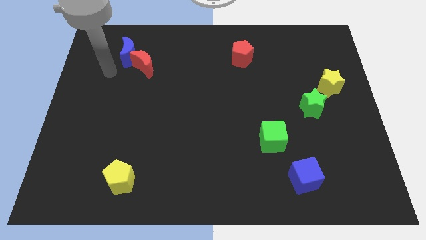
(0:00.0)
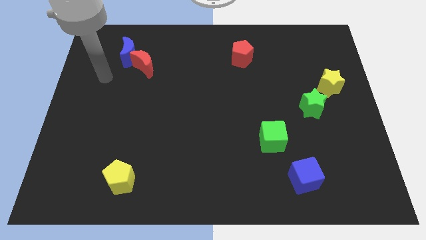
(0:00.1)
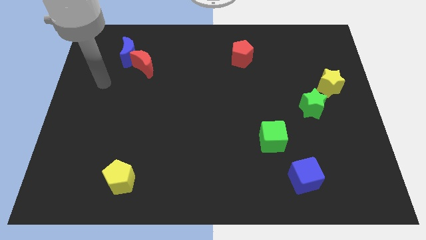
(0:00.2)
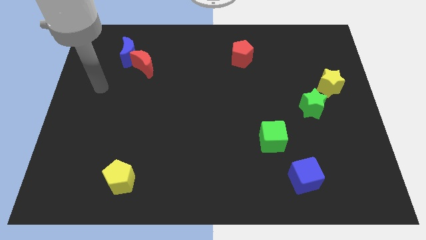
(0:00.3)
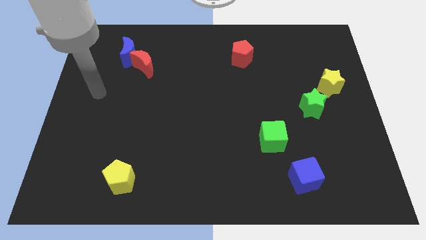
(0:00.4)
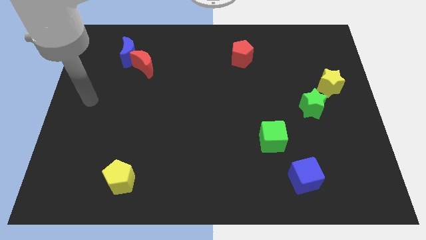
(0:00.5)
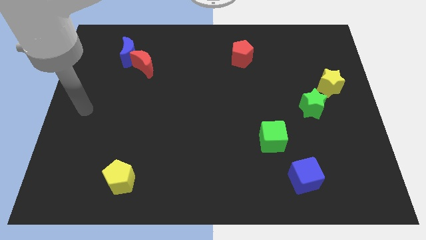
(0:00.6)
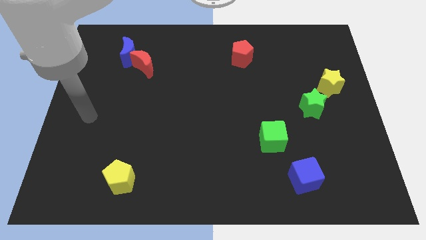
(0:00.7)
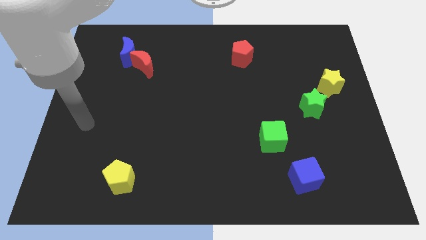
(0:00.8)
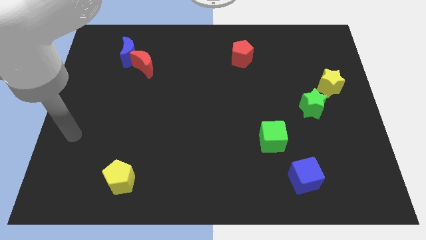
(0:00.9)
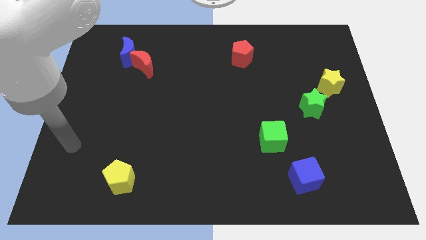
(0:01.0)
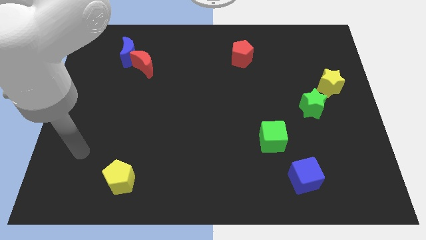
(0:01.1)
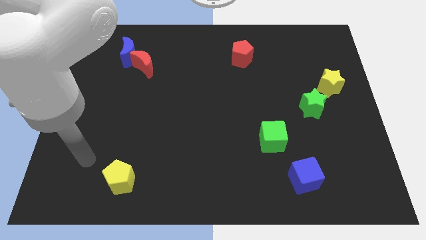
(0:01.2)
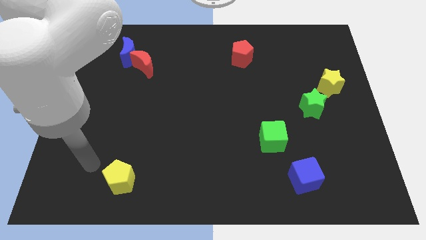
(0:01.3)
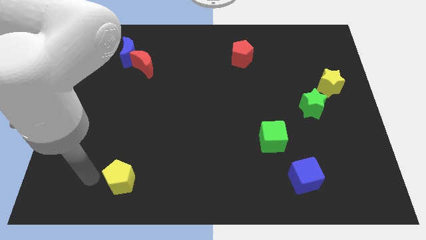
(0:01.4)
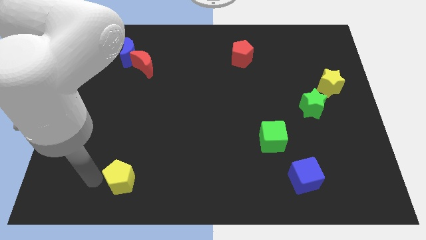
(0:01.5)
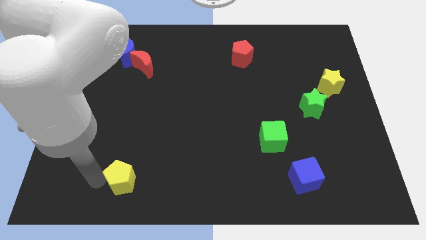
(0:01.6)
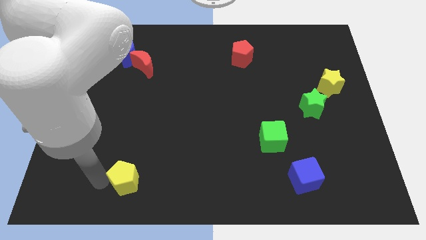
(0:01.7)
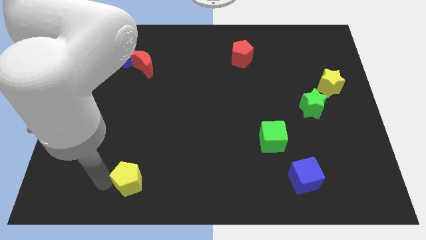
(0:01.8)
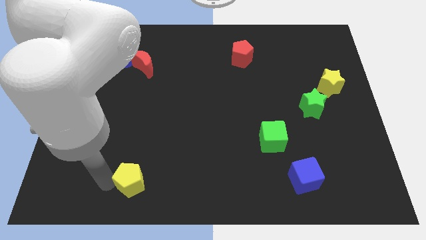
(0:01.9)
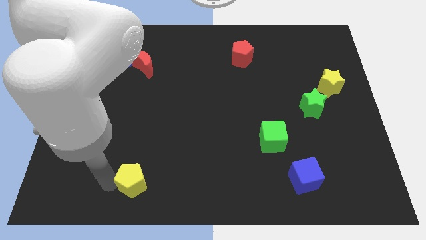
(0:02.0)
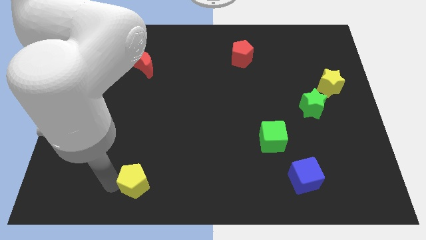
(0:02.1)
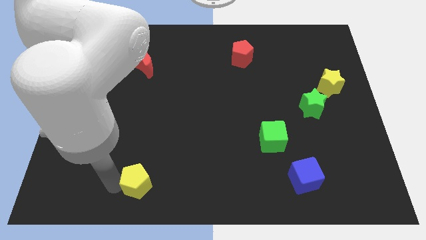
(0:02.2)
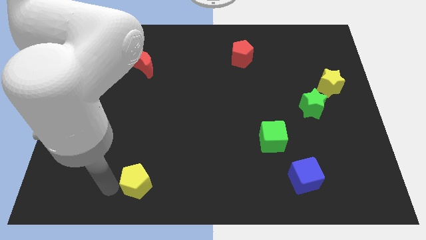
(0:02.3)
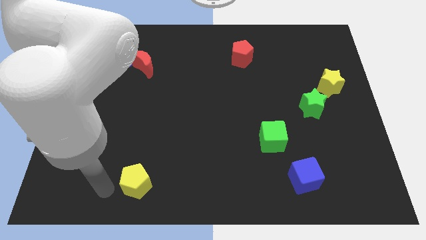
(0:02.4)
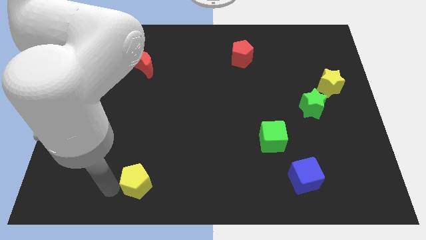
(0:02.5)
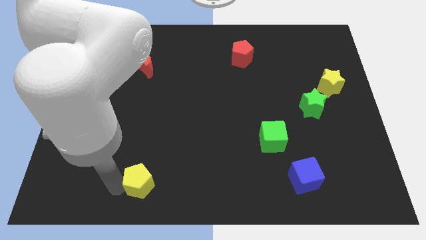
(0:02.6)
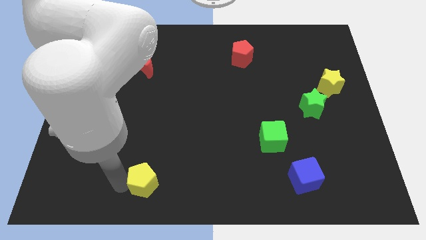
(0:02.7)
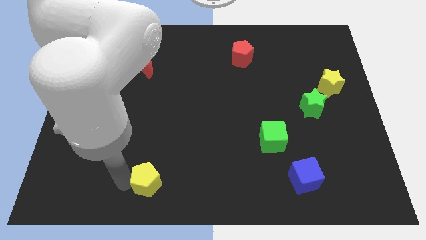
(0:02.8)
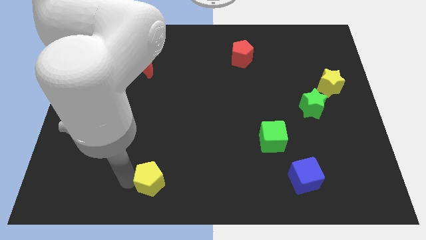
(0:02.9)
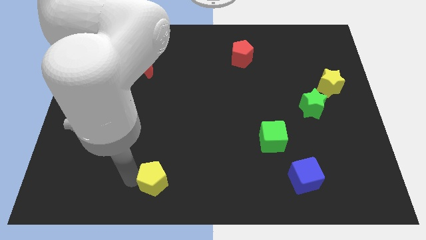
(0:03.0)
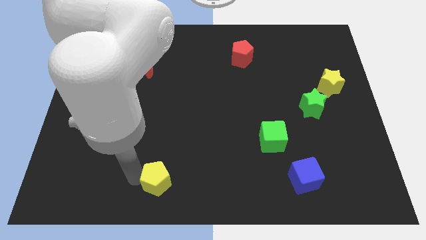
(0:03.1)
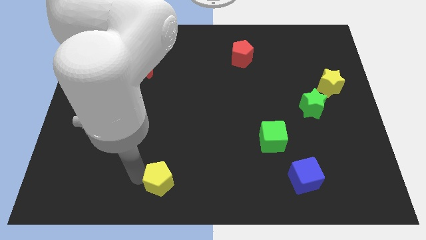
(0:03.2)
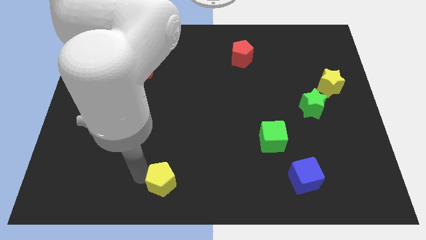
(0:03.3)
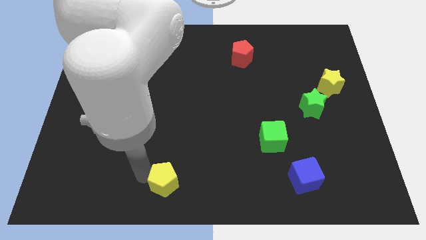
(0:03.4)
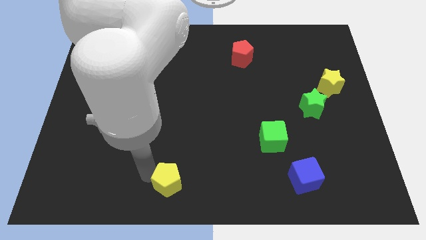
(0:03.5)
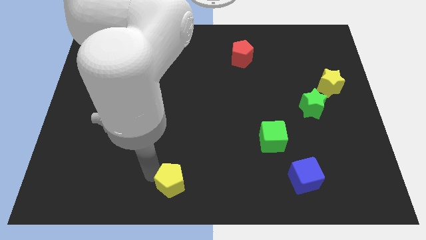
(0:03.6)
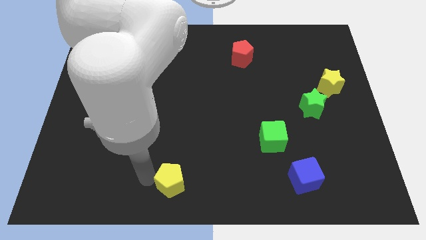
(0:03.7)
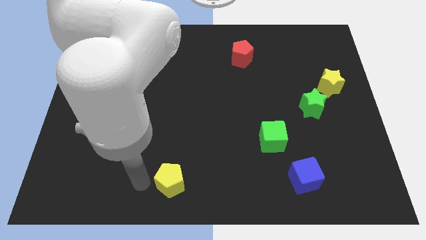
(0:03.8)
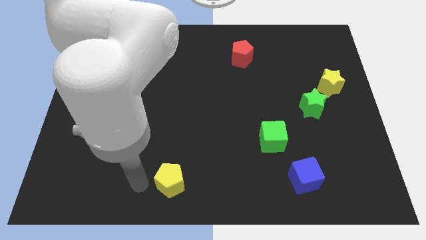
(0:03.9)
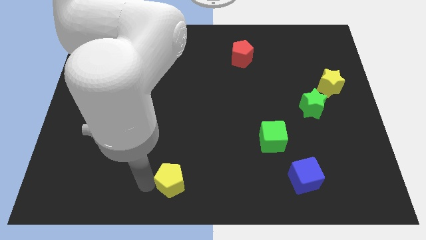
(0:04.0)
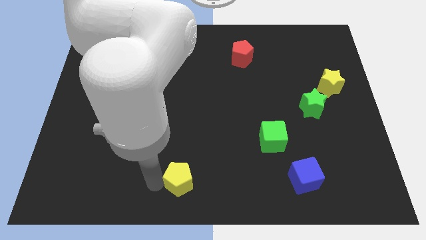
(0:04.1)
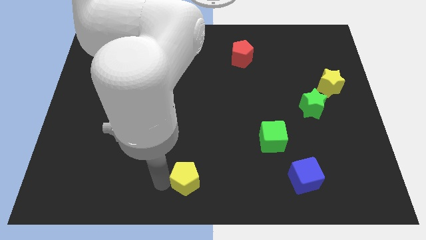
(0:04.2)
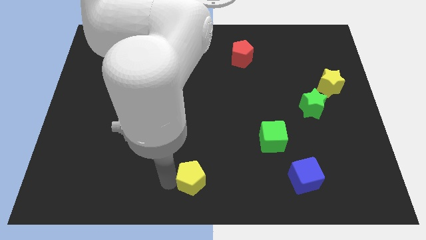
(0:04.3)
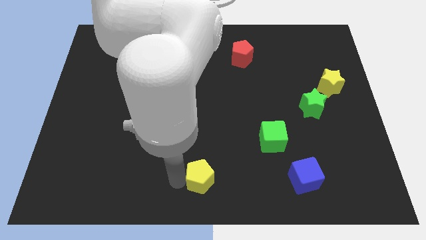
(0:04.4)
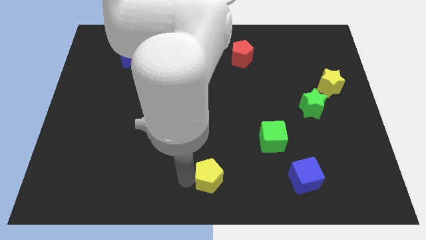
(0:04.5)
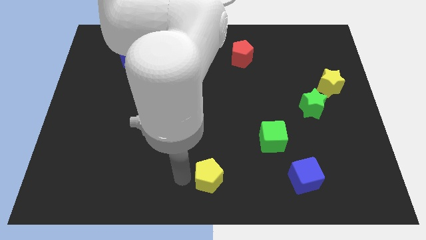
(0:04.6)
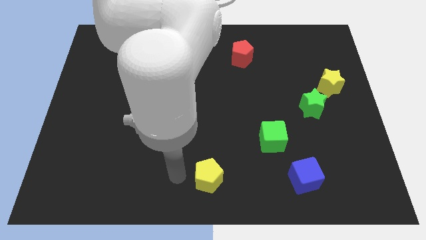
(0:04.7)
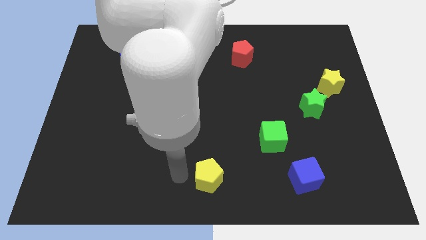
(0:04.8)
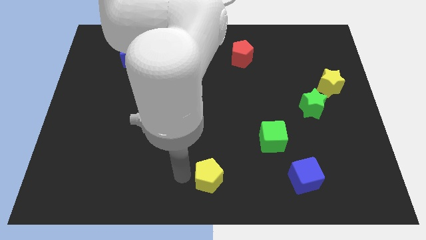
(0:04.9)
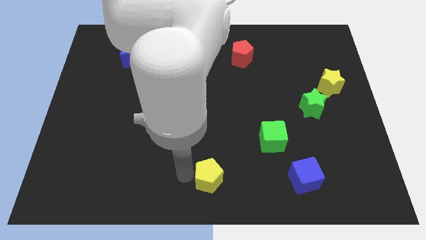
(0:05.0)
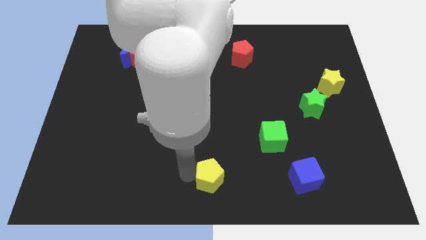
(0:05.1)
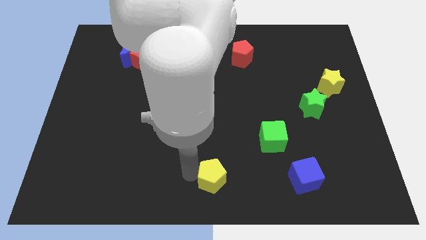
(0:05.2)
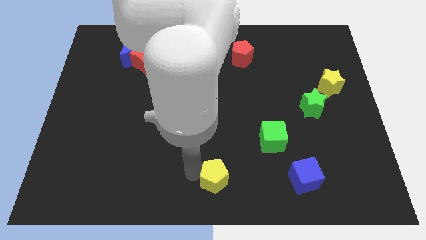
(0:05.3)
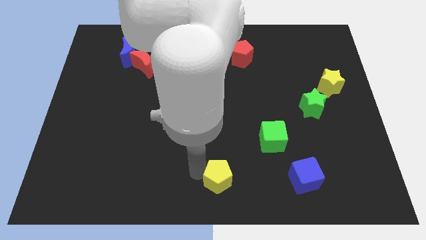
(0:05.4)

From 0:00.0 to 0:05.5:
move the yellow pentagon right

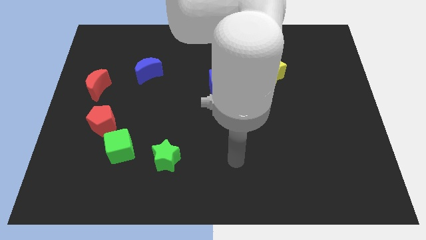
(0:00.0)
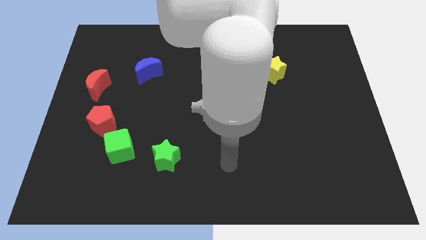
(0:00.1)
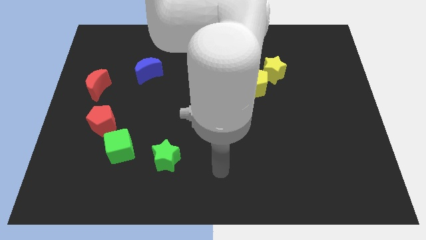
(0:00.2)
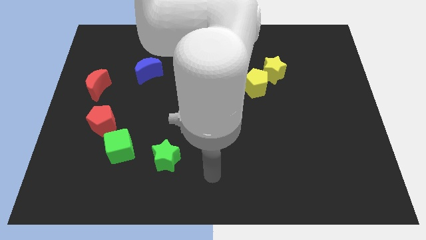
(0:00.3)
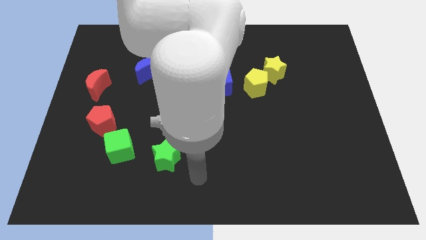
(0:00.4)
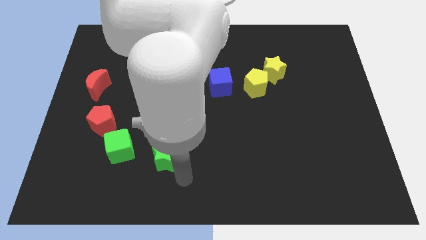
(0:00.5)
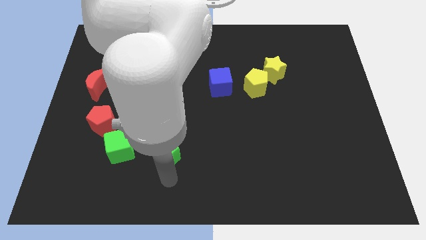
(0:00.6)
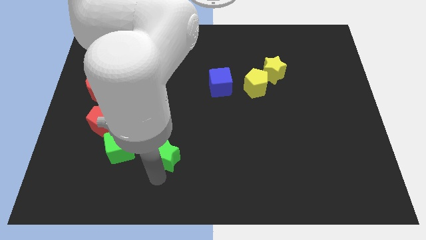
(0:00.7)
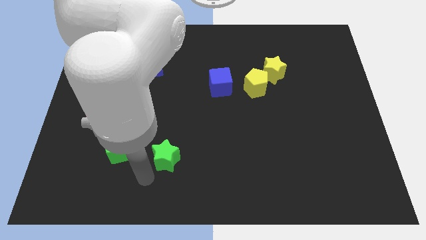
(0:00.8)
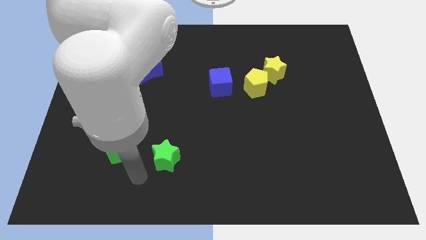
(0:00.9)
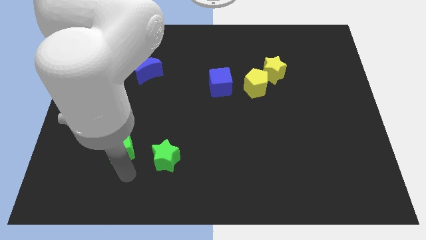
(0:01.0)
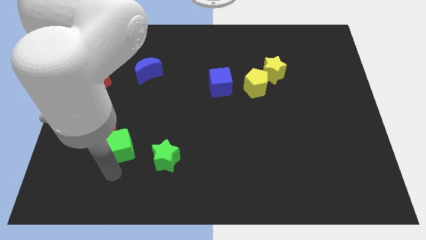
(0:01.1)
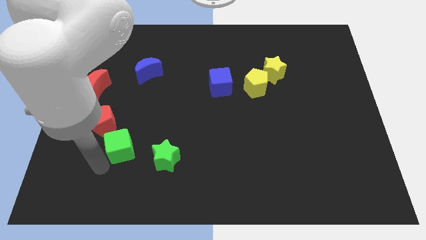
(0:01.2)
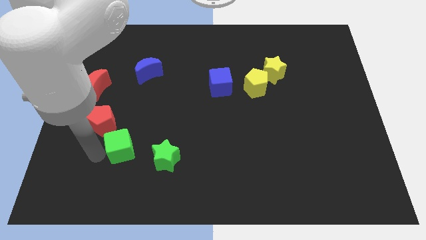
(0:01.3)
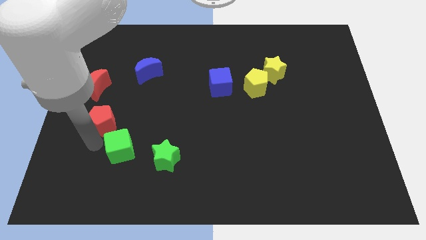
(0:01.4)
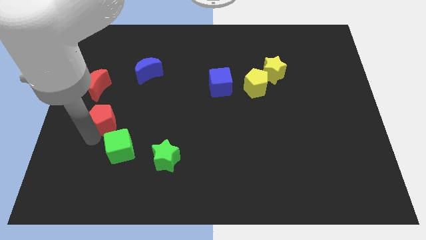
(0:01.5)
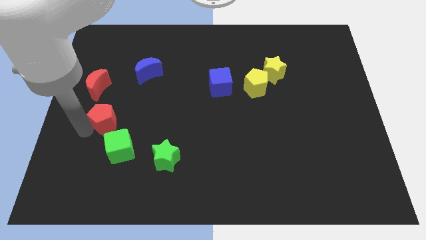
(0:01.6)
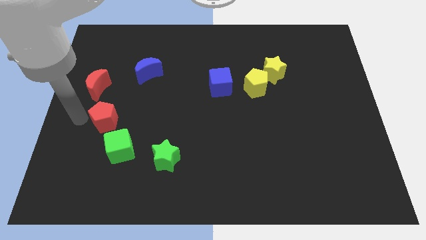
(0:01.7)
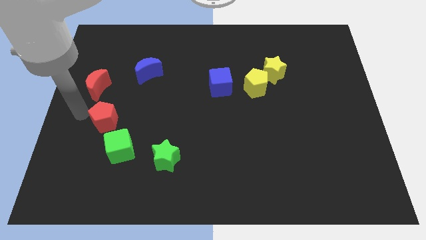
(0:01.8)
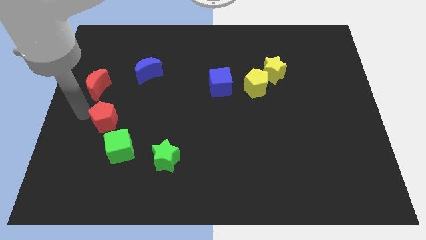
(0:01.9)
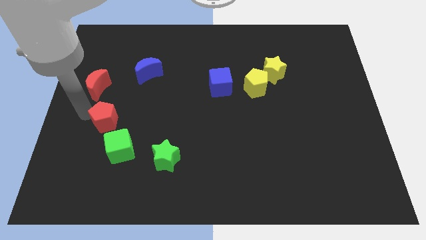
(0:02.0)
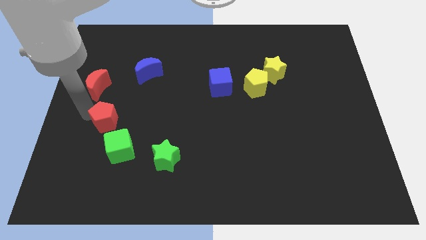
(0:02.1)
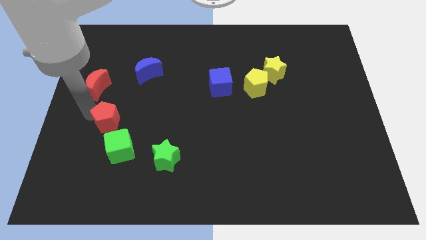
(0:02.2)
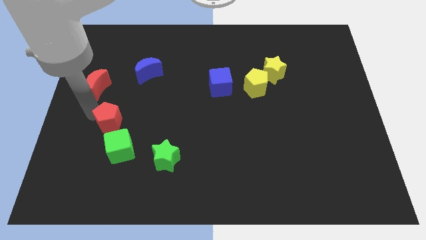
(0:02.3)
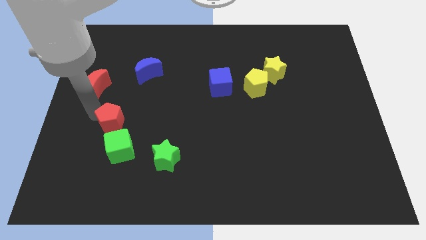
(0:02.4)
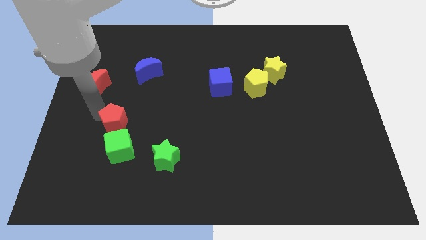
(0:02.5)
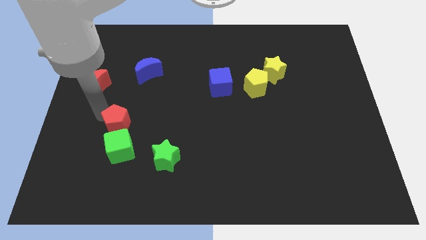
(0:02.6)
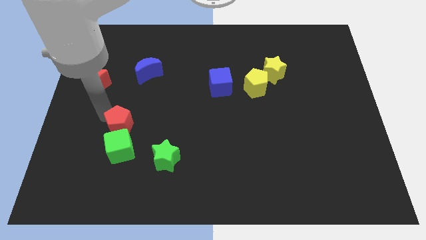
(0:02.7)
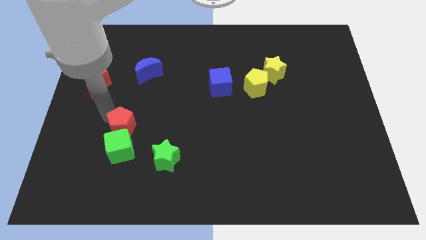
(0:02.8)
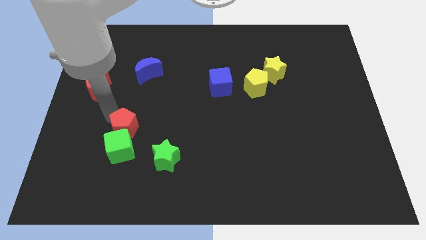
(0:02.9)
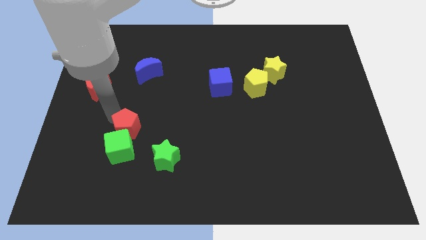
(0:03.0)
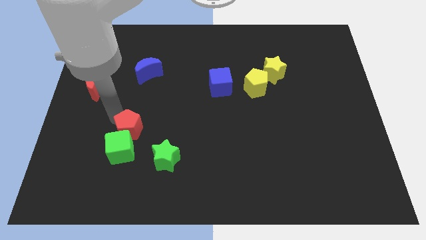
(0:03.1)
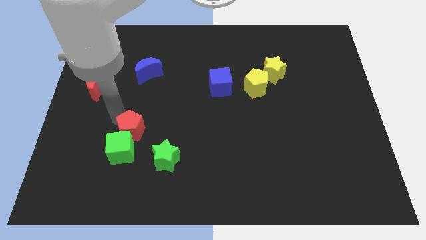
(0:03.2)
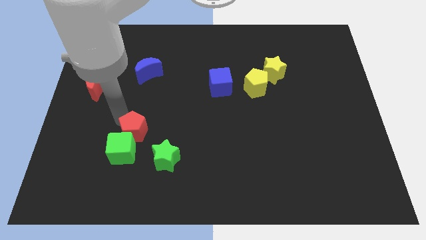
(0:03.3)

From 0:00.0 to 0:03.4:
move the red pentagon right a little
